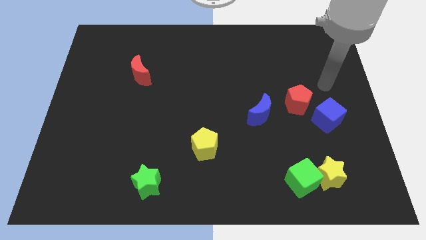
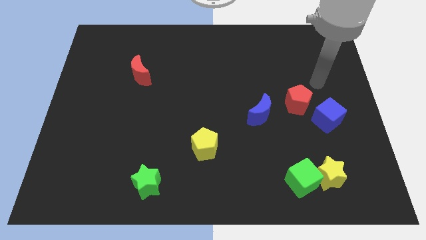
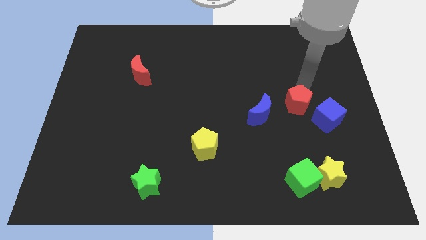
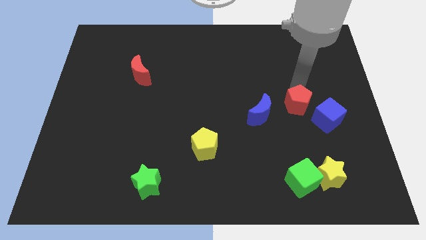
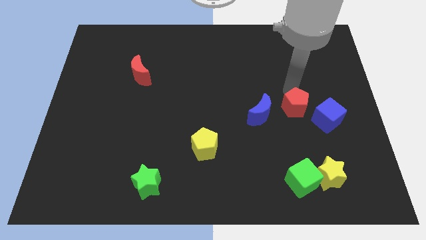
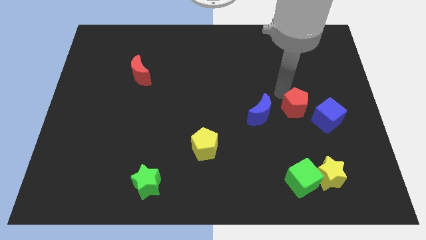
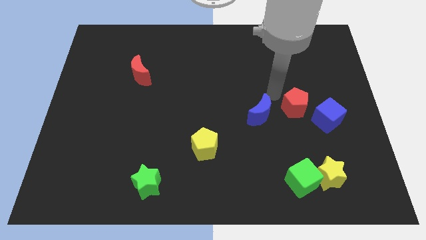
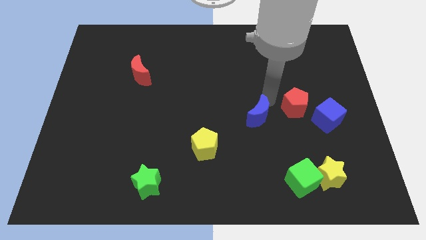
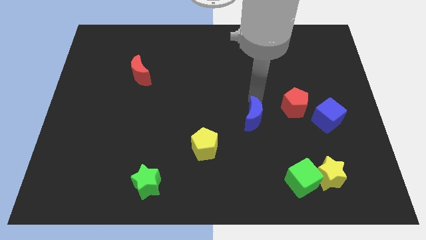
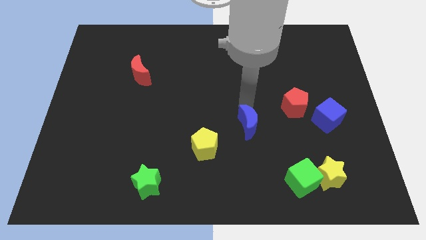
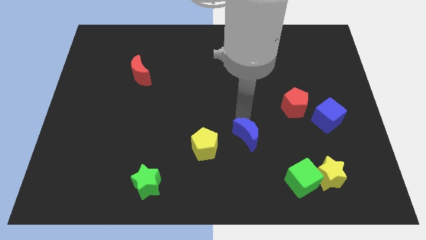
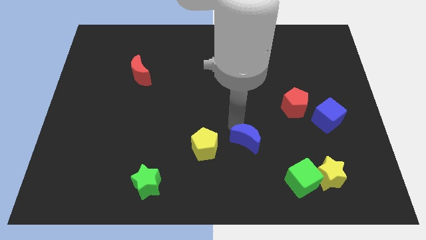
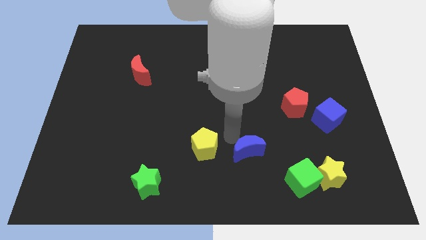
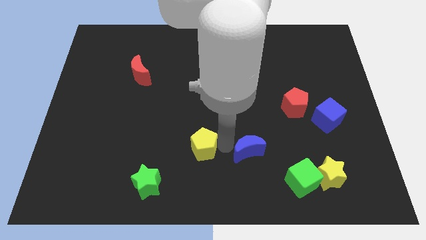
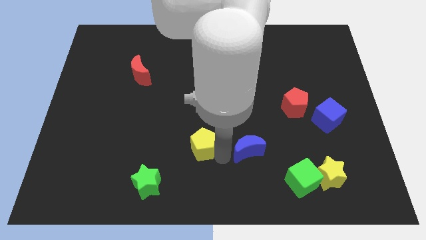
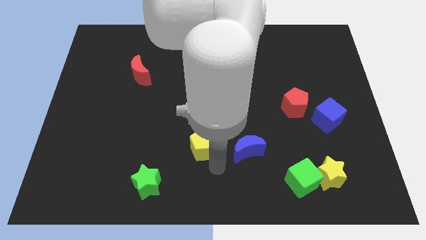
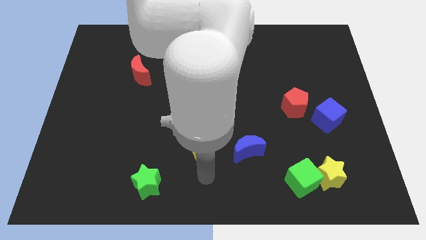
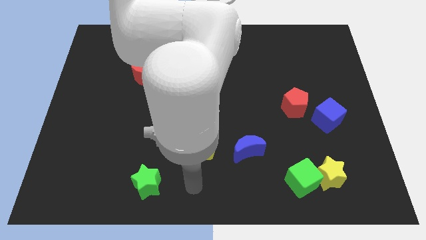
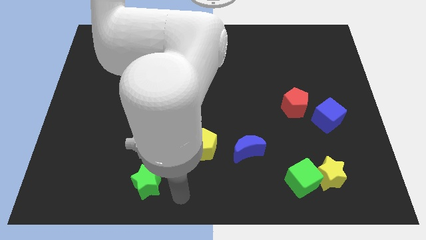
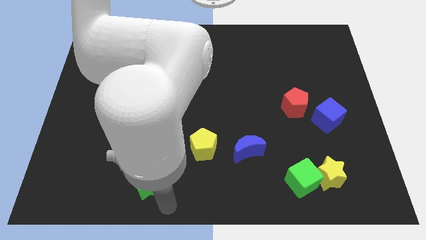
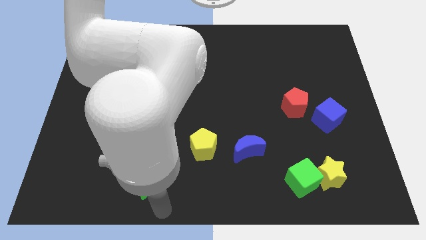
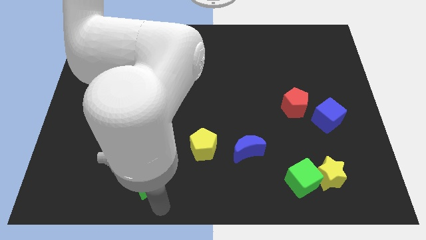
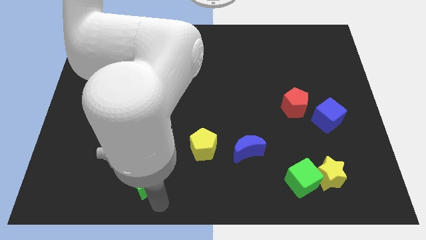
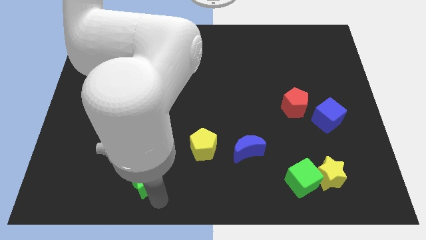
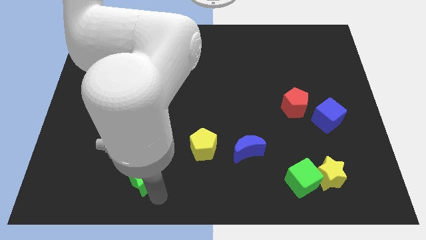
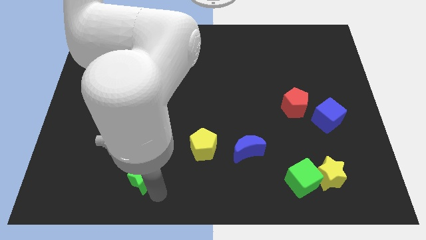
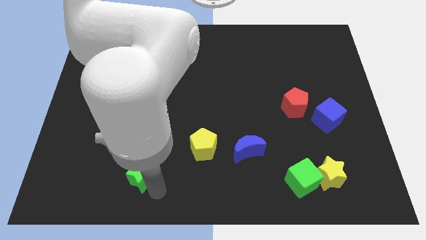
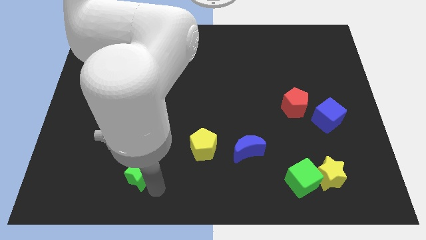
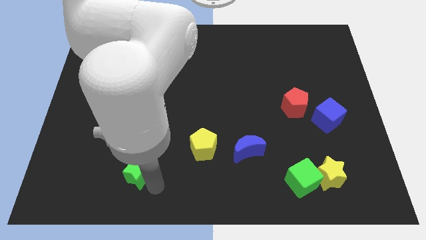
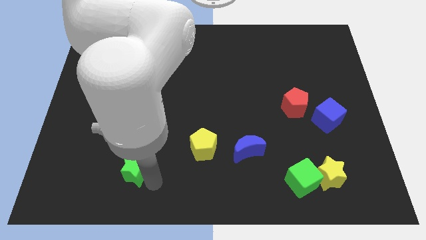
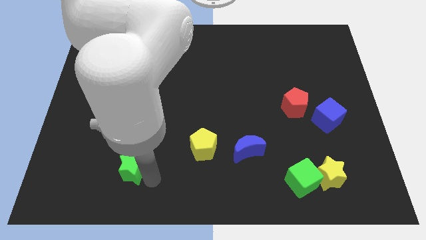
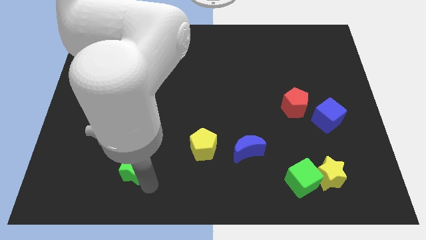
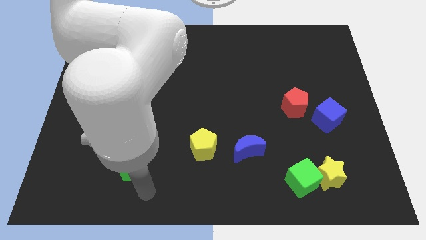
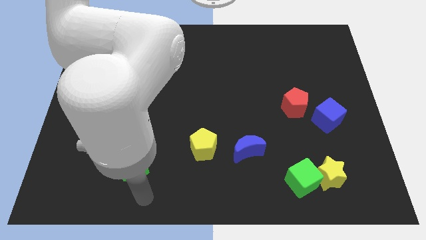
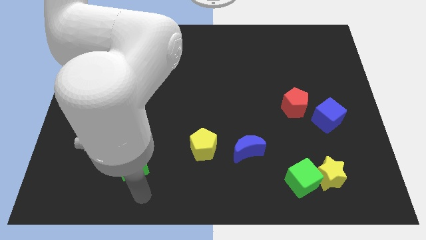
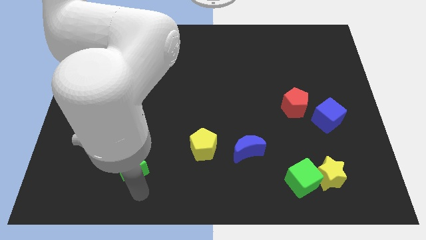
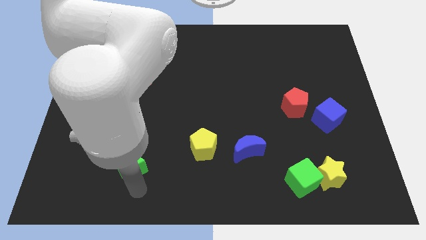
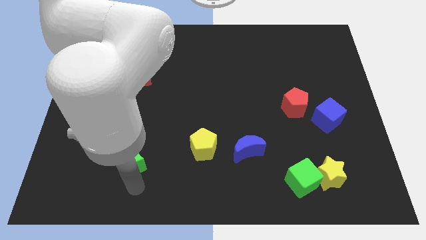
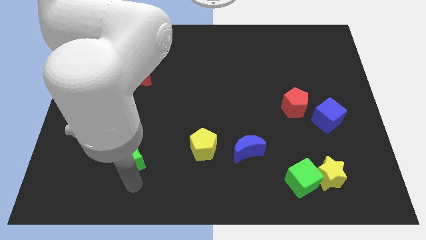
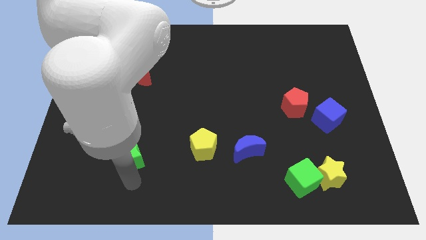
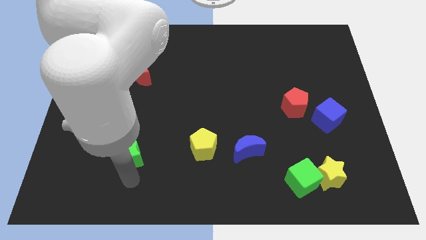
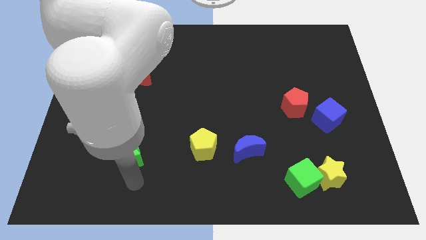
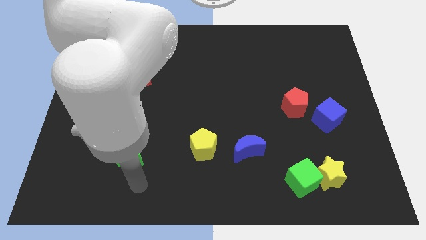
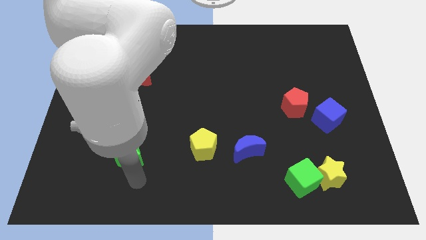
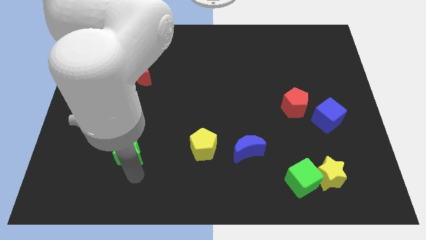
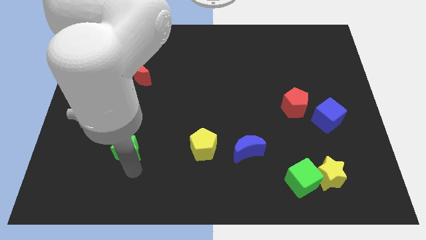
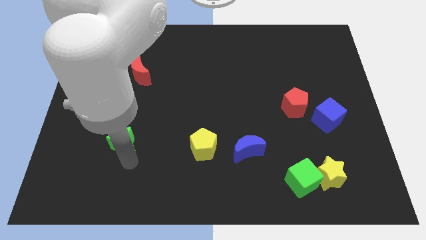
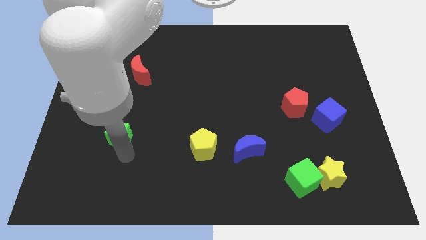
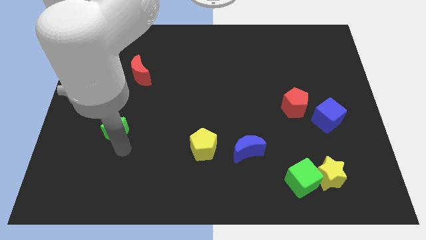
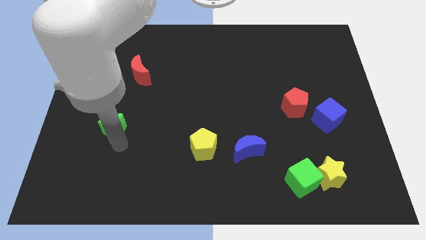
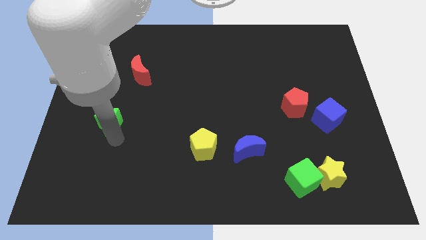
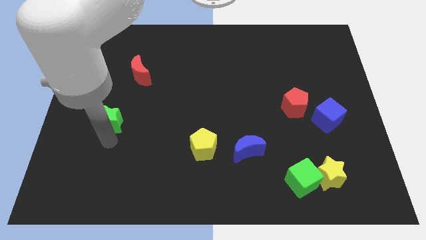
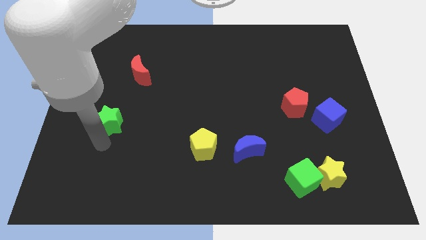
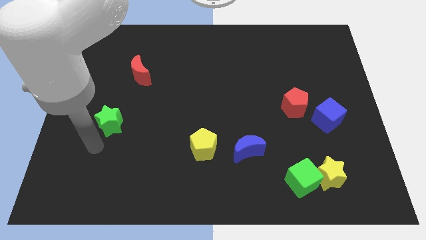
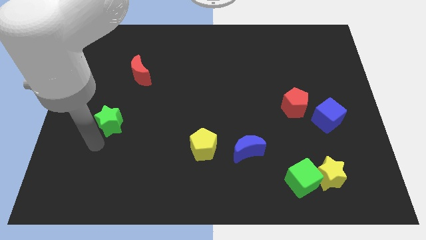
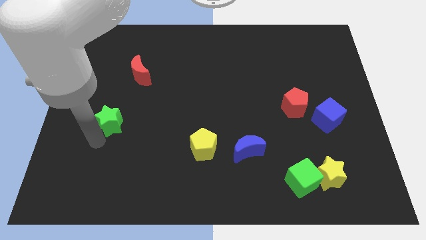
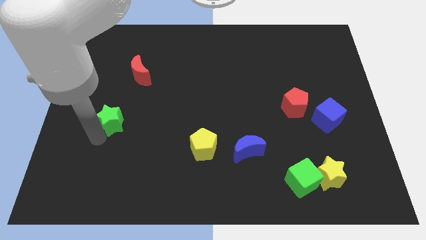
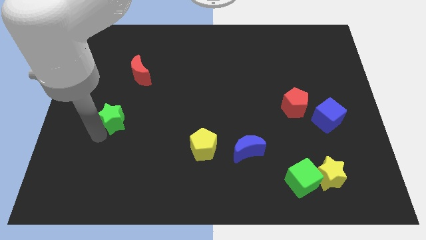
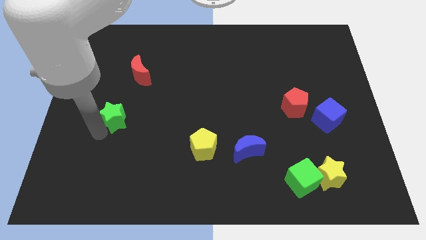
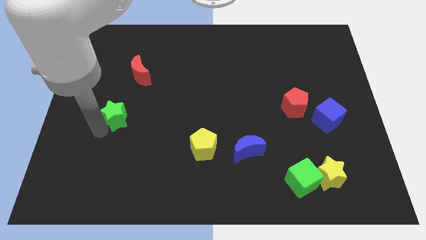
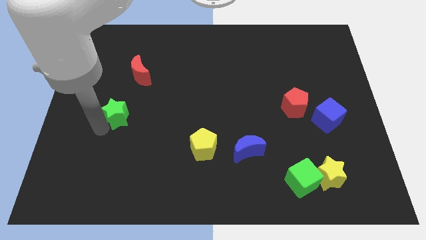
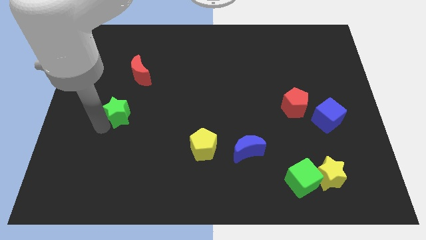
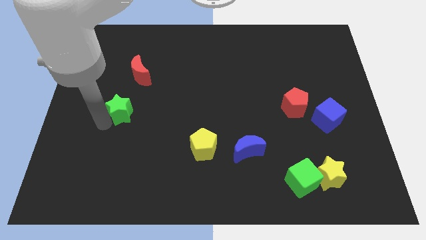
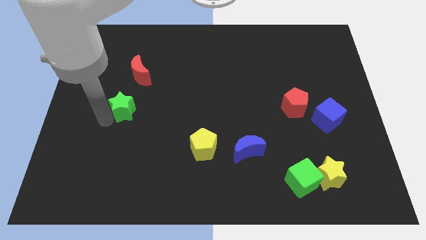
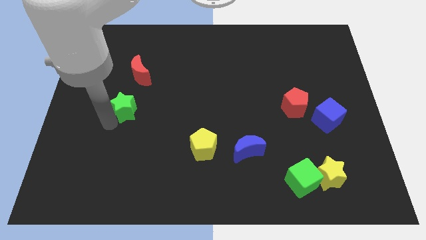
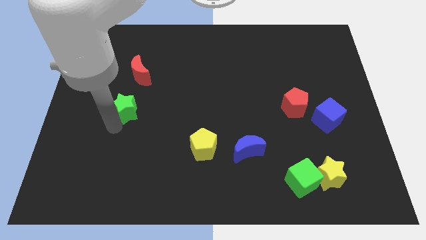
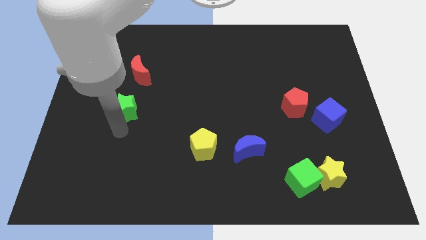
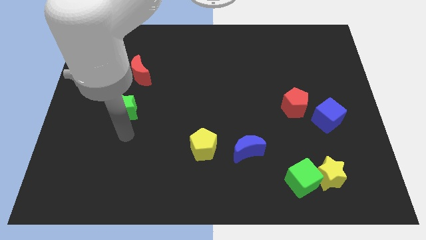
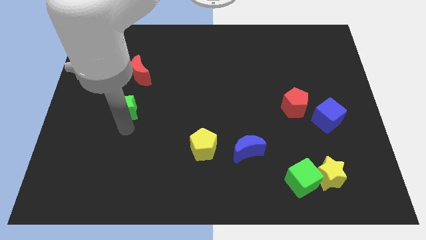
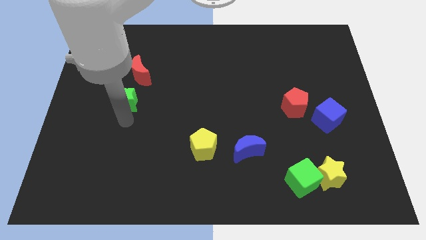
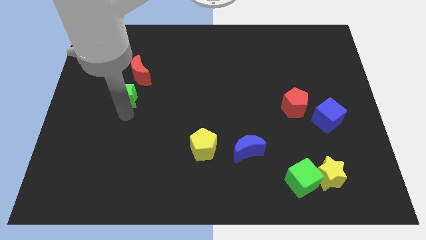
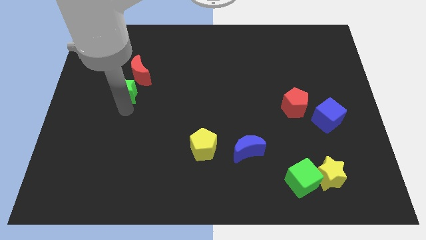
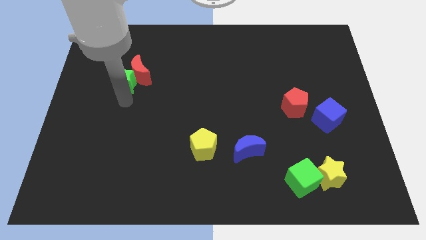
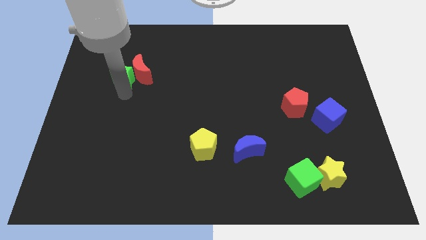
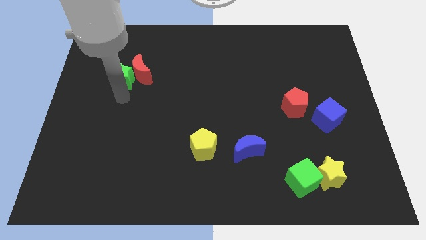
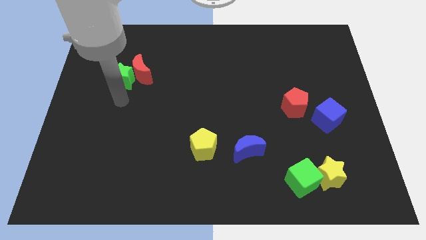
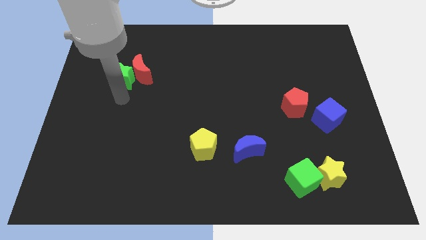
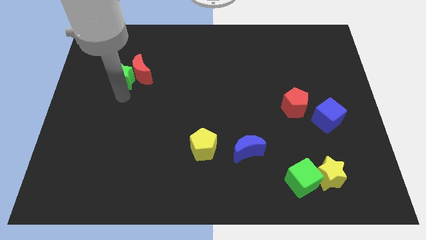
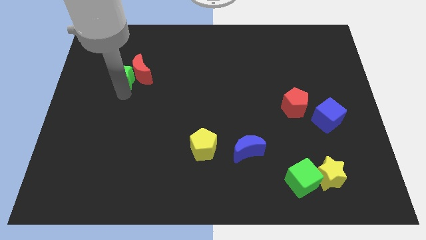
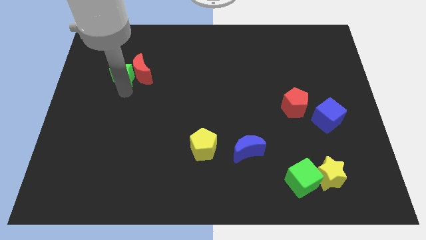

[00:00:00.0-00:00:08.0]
slide the green star to the top left of the red moon
